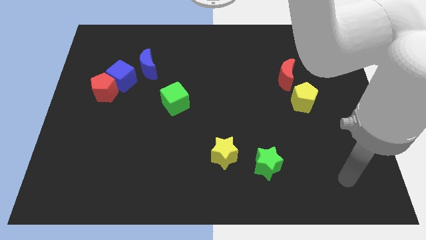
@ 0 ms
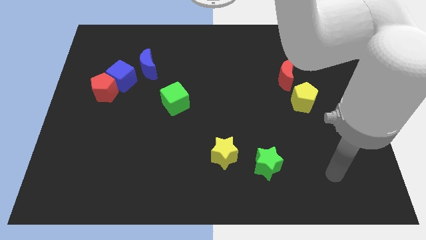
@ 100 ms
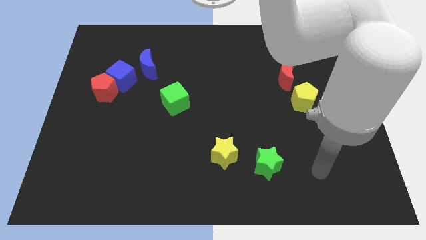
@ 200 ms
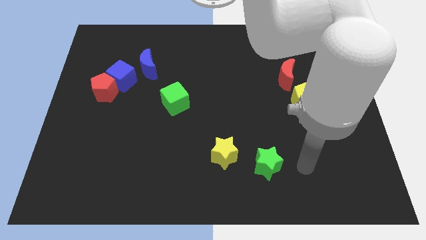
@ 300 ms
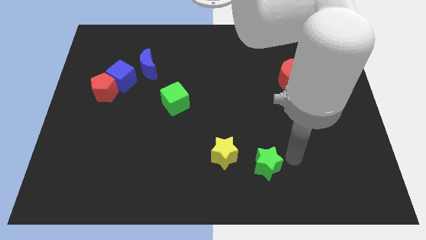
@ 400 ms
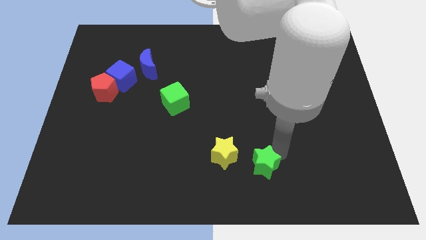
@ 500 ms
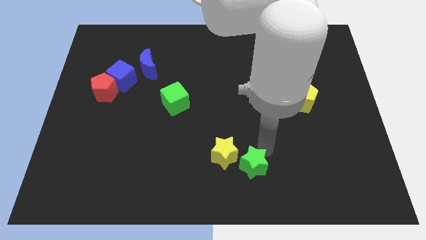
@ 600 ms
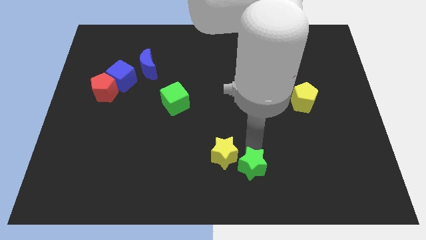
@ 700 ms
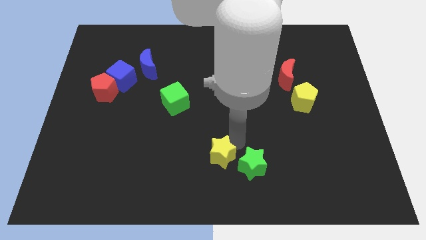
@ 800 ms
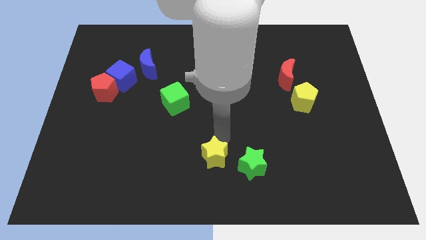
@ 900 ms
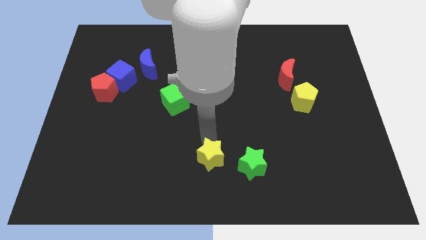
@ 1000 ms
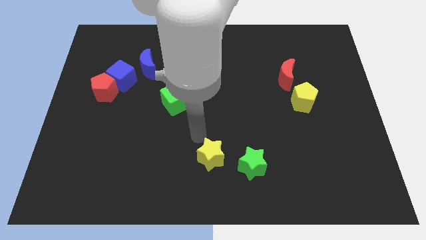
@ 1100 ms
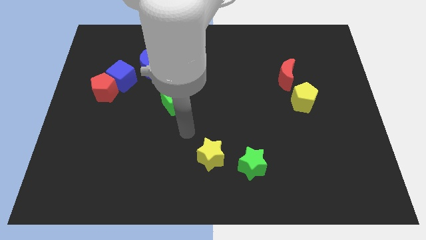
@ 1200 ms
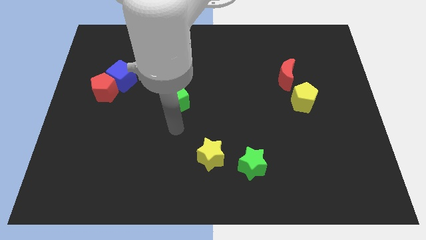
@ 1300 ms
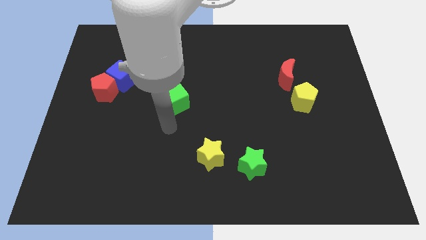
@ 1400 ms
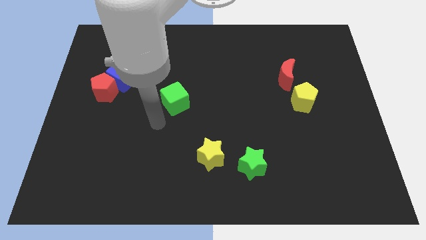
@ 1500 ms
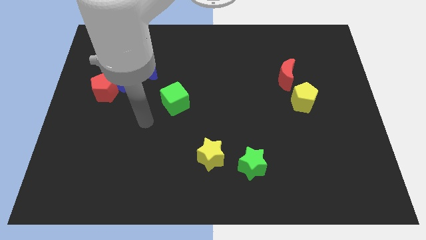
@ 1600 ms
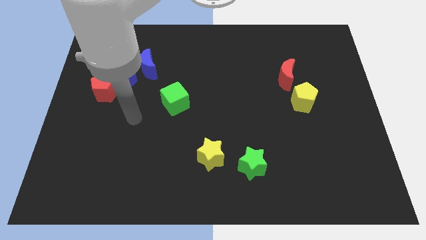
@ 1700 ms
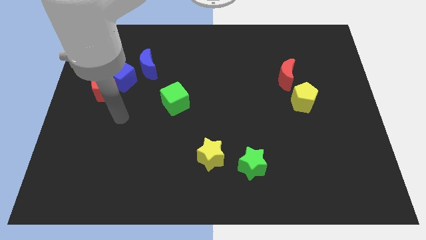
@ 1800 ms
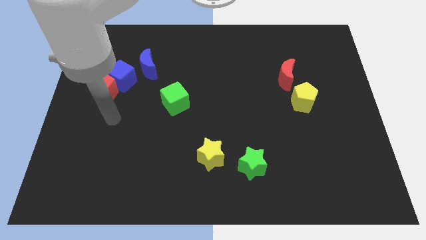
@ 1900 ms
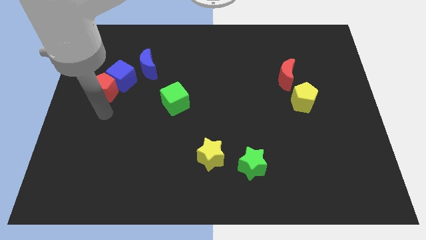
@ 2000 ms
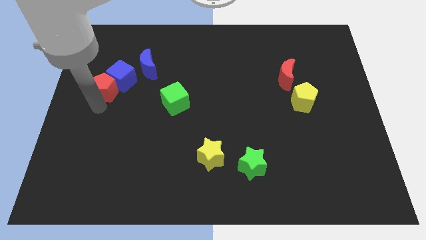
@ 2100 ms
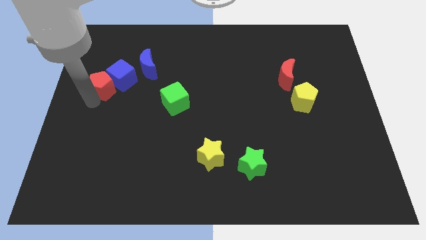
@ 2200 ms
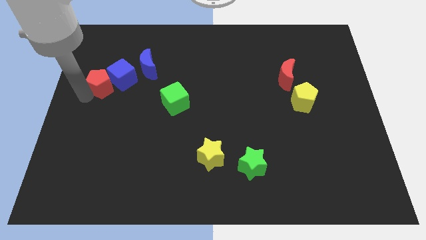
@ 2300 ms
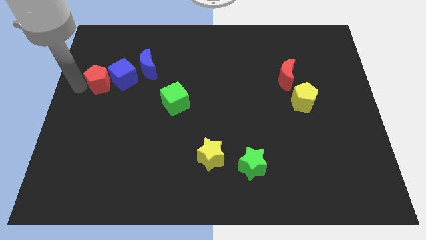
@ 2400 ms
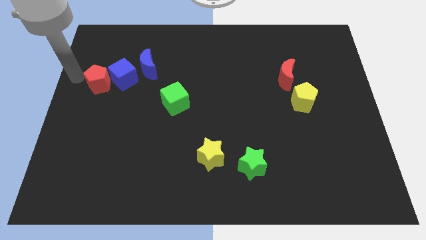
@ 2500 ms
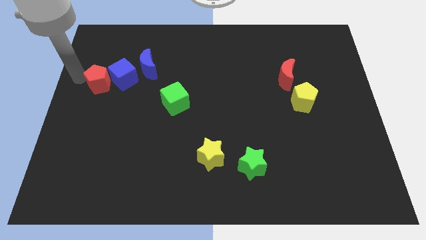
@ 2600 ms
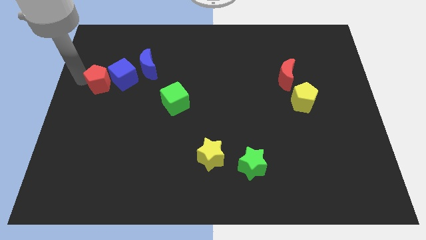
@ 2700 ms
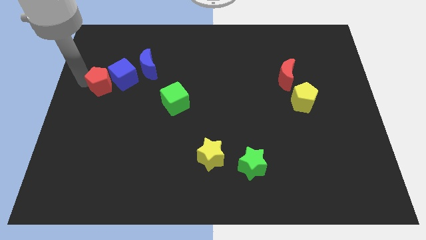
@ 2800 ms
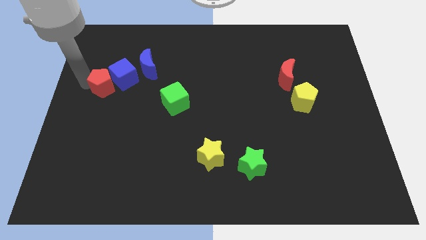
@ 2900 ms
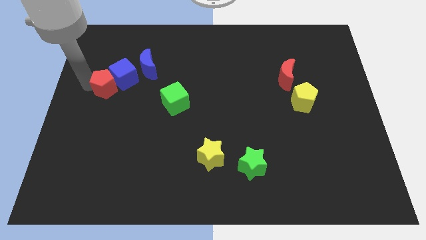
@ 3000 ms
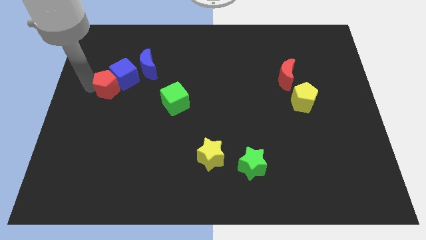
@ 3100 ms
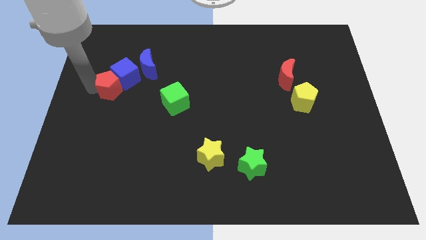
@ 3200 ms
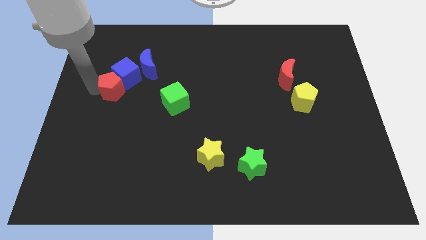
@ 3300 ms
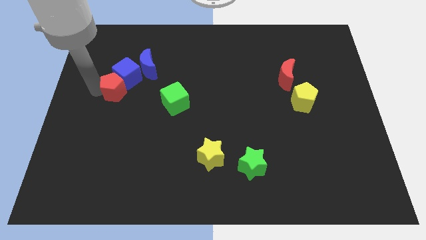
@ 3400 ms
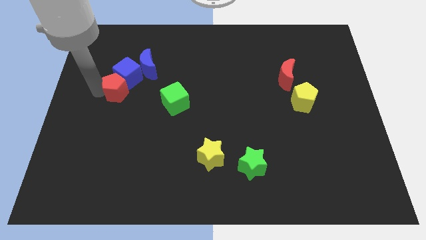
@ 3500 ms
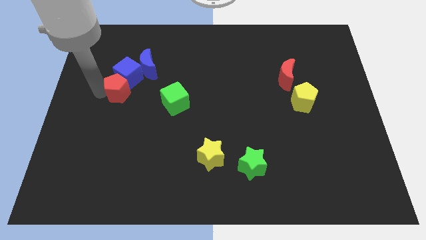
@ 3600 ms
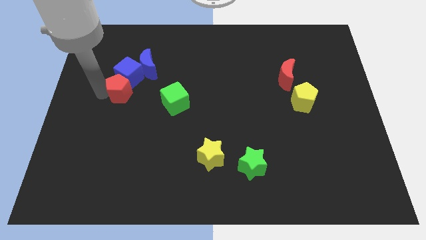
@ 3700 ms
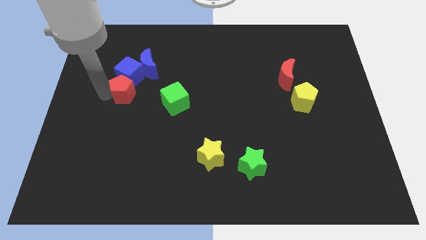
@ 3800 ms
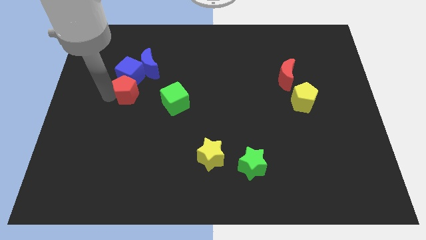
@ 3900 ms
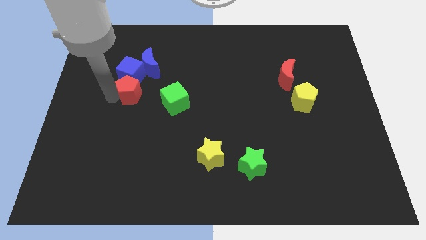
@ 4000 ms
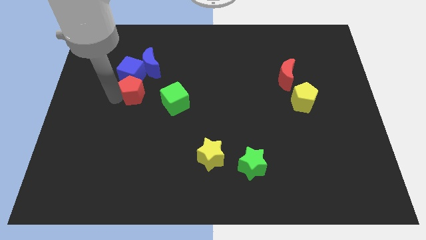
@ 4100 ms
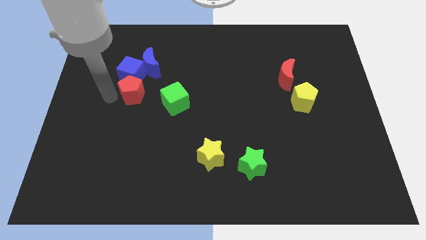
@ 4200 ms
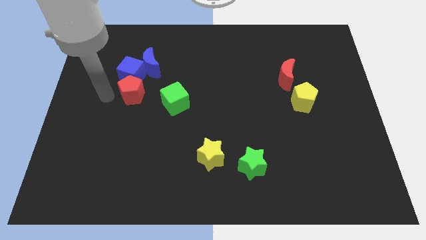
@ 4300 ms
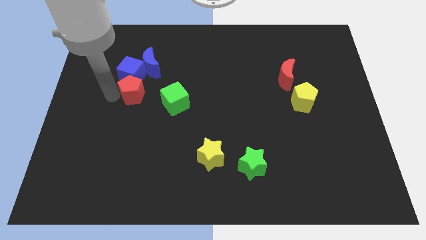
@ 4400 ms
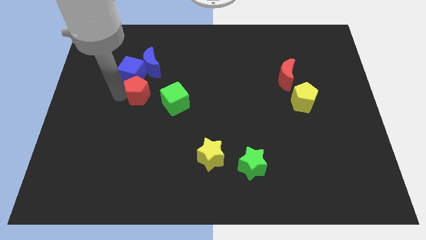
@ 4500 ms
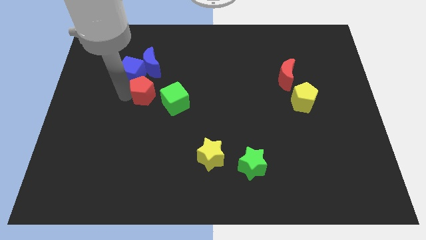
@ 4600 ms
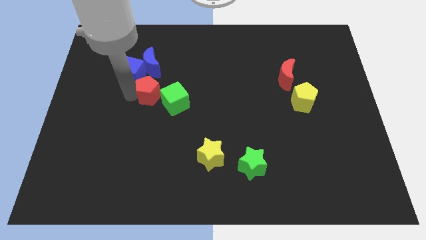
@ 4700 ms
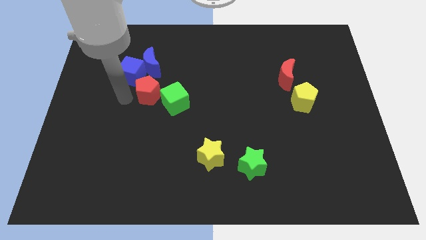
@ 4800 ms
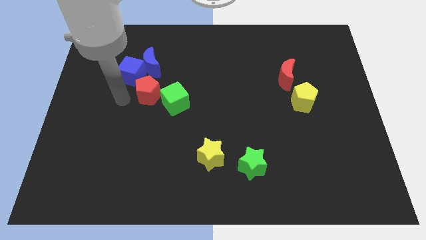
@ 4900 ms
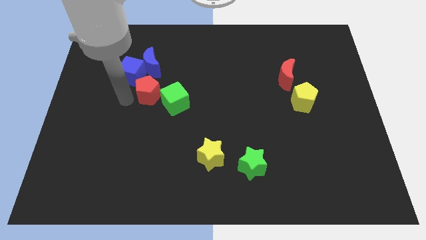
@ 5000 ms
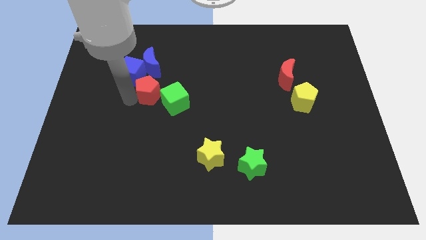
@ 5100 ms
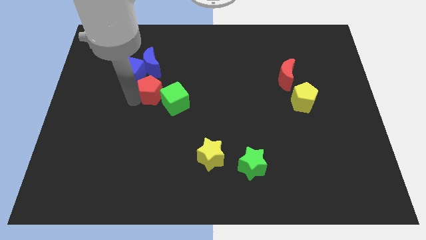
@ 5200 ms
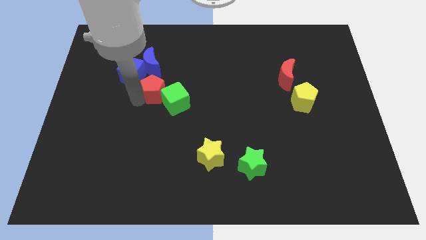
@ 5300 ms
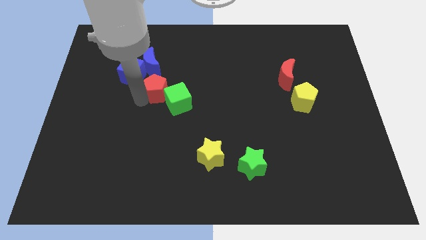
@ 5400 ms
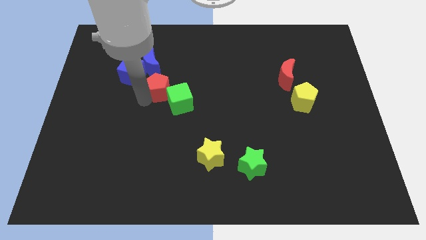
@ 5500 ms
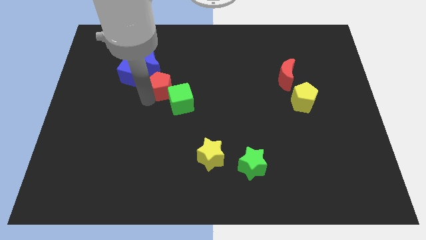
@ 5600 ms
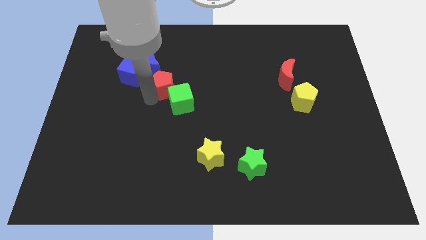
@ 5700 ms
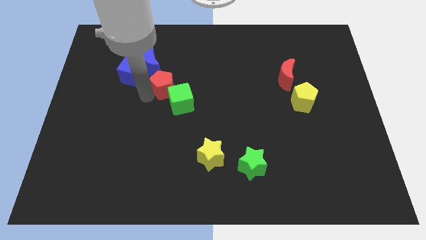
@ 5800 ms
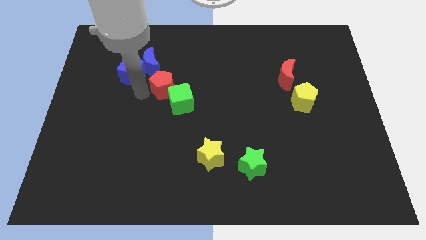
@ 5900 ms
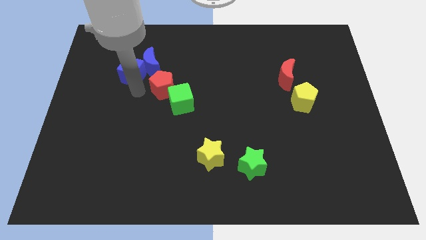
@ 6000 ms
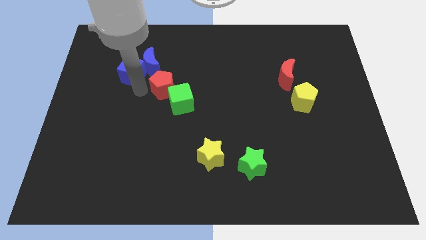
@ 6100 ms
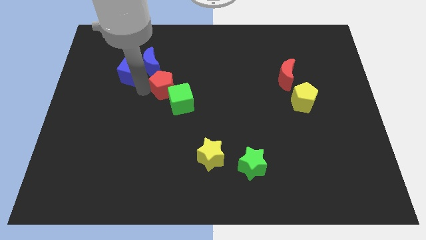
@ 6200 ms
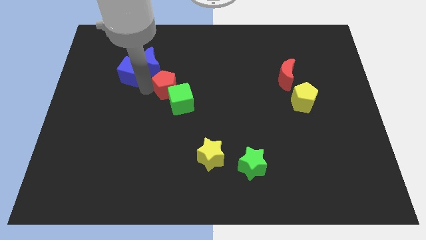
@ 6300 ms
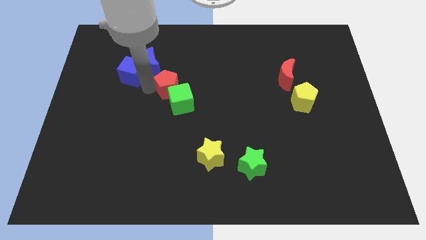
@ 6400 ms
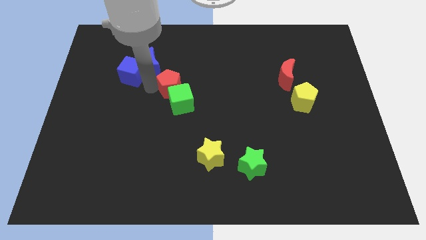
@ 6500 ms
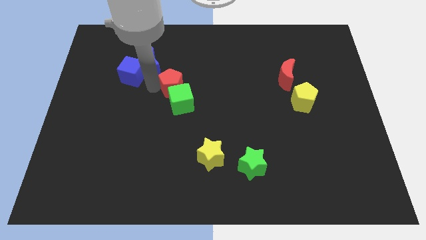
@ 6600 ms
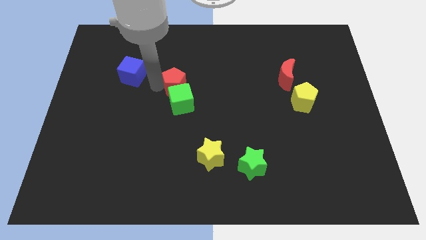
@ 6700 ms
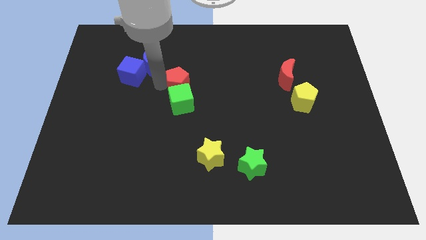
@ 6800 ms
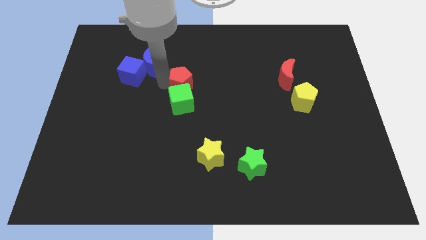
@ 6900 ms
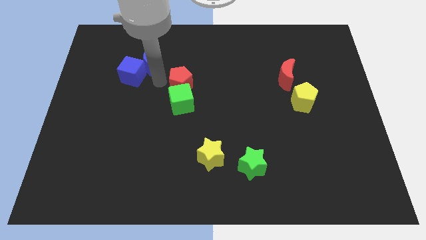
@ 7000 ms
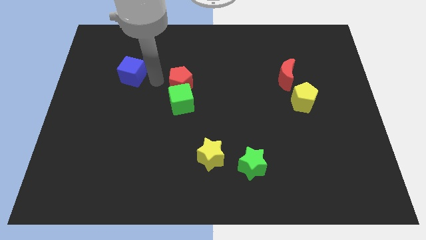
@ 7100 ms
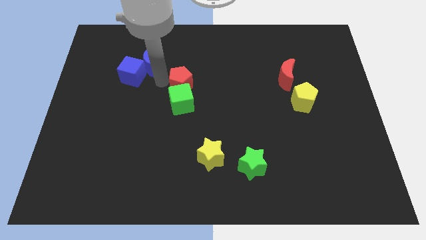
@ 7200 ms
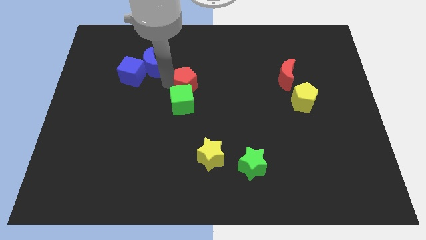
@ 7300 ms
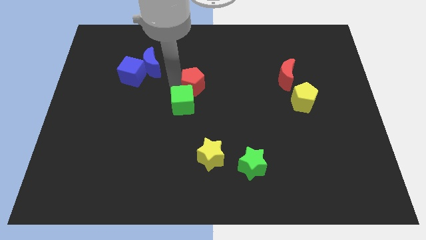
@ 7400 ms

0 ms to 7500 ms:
slide the red pentagon right

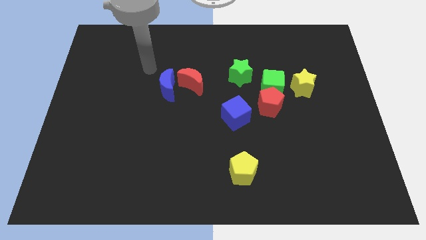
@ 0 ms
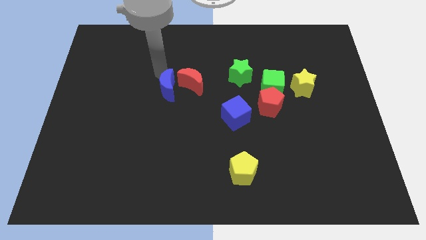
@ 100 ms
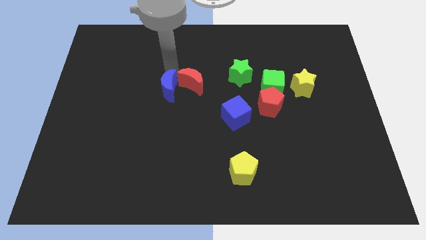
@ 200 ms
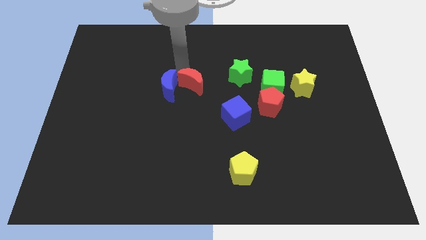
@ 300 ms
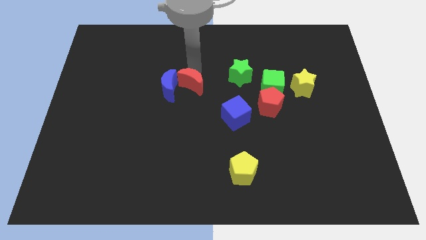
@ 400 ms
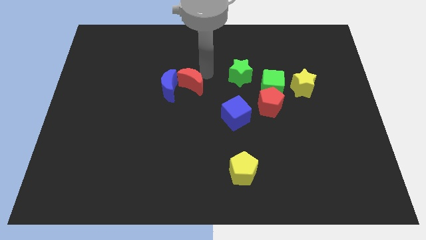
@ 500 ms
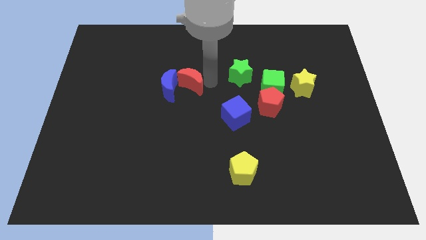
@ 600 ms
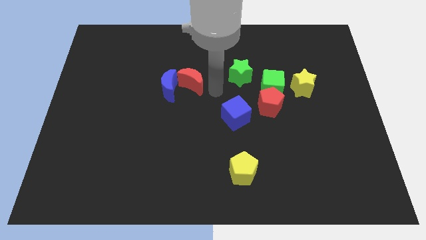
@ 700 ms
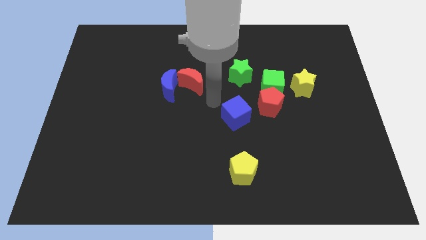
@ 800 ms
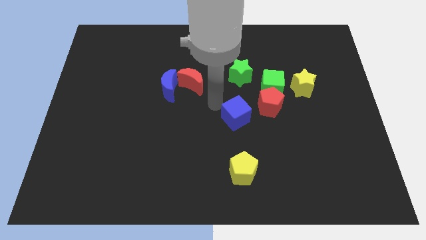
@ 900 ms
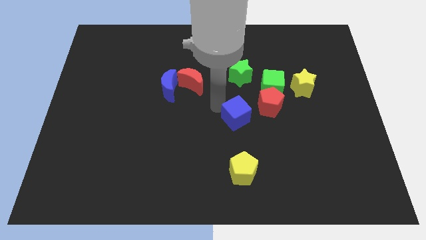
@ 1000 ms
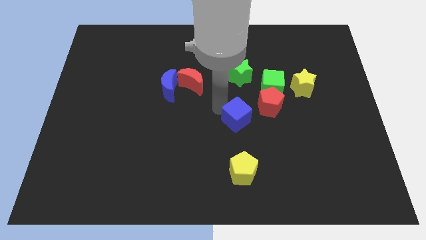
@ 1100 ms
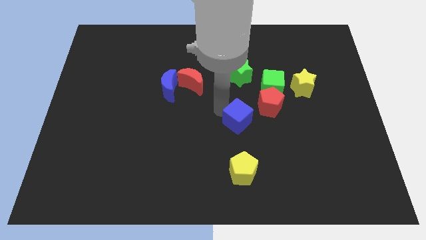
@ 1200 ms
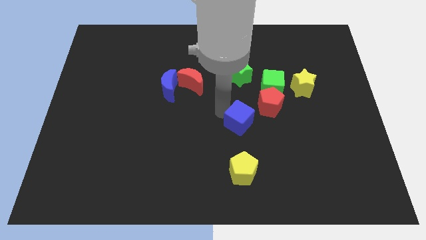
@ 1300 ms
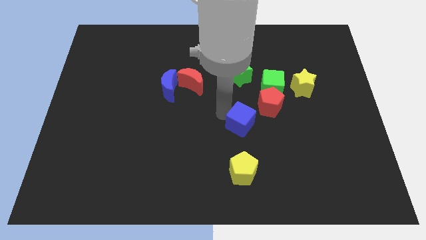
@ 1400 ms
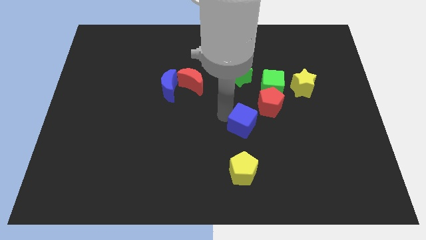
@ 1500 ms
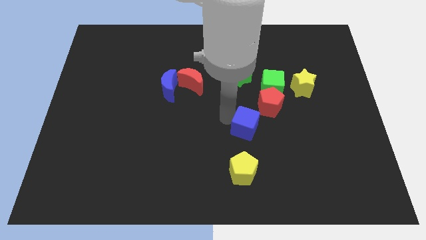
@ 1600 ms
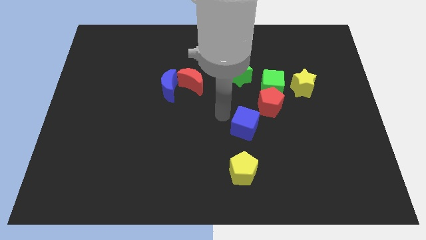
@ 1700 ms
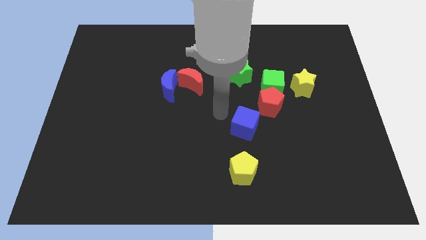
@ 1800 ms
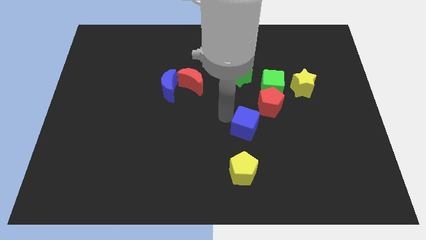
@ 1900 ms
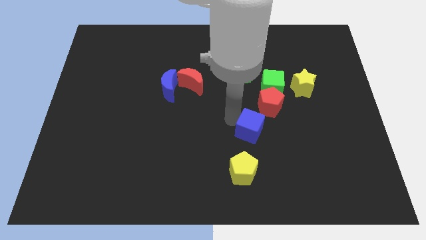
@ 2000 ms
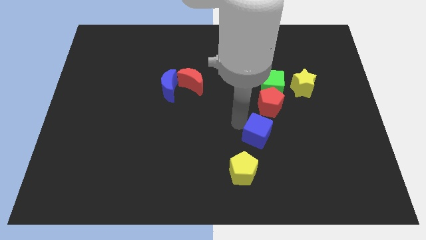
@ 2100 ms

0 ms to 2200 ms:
slightly push the blue cube down and then right
